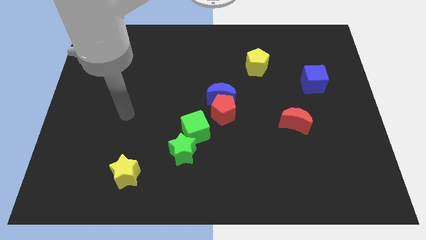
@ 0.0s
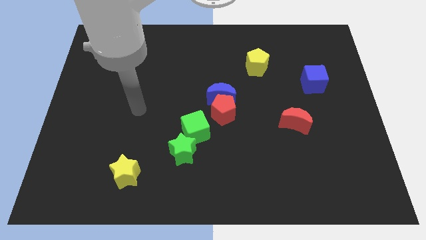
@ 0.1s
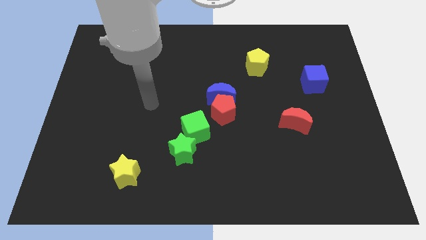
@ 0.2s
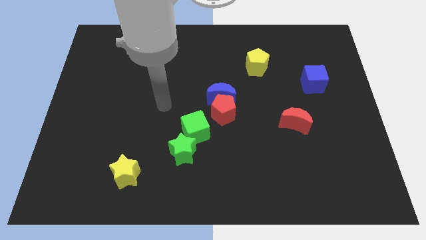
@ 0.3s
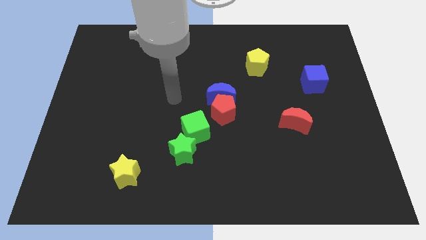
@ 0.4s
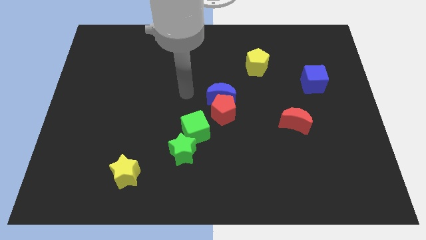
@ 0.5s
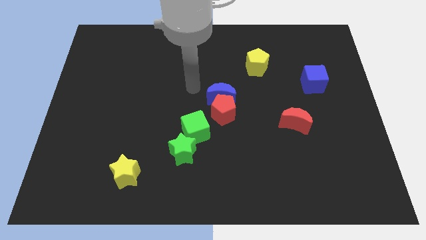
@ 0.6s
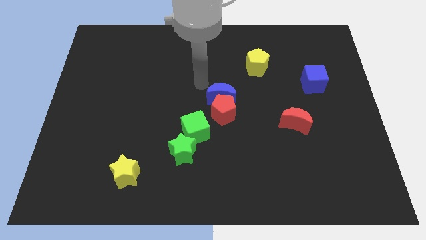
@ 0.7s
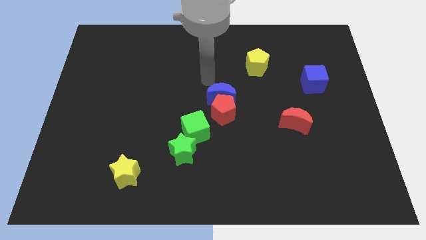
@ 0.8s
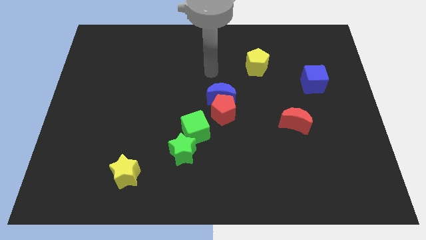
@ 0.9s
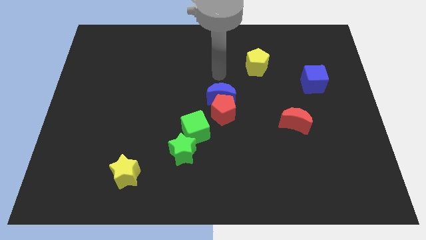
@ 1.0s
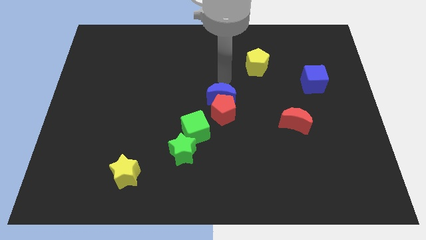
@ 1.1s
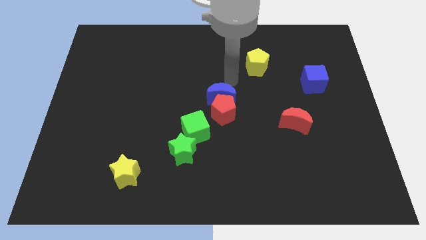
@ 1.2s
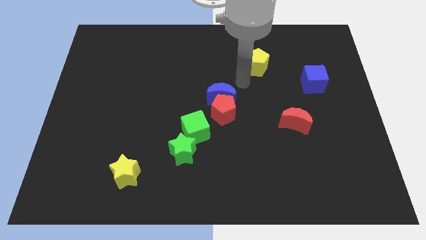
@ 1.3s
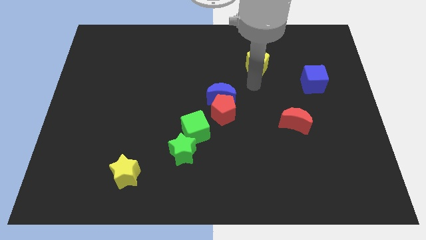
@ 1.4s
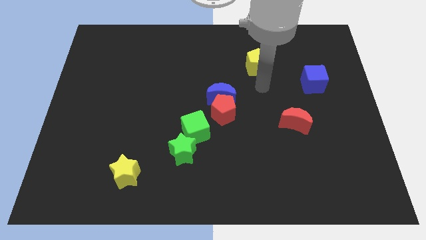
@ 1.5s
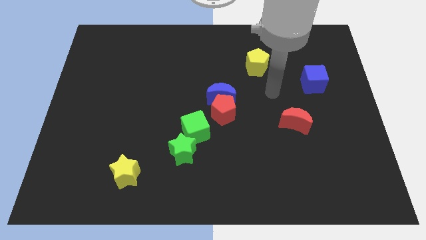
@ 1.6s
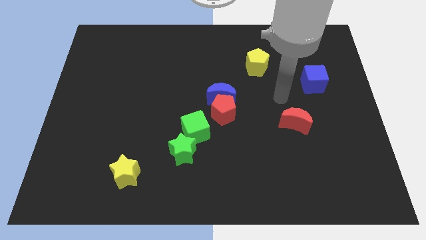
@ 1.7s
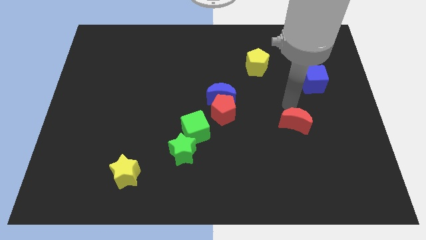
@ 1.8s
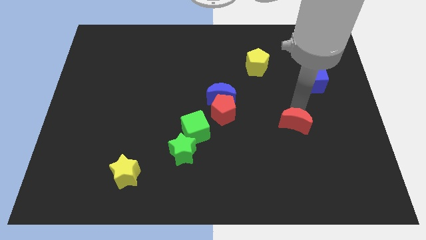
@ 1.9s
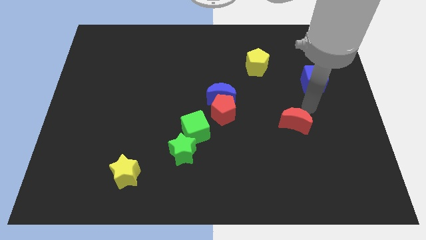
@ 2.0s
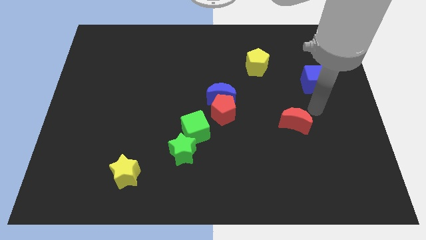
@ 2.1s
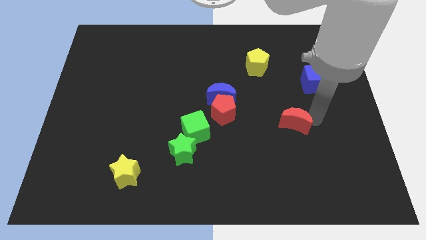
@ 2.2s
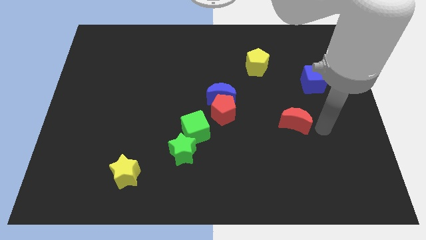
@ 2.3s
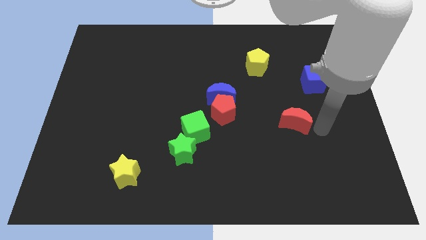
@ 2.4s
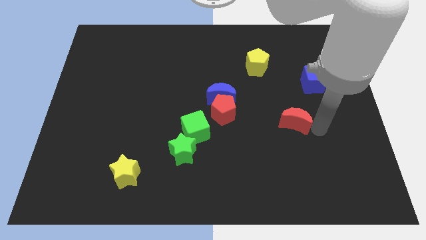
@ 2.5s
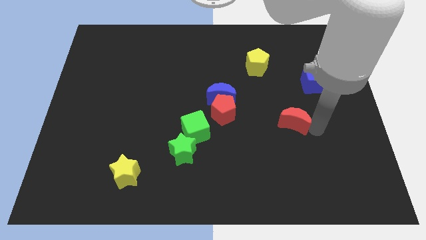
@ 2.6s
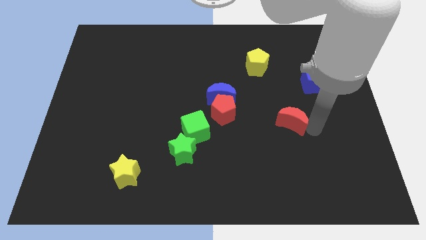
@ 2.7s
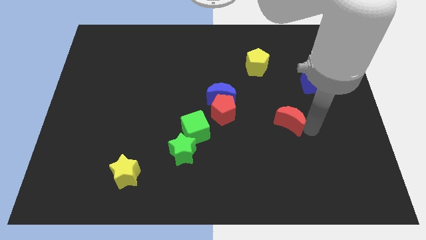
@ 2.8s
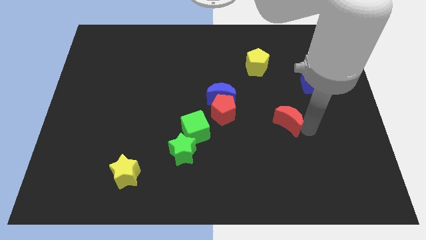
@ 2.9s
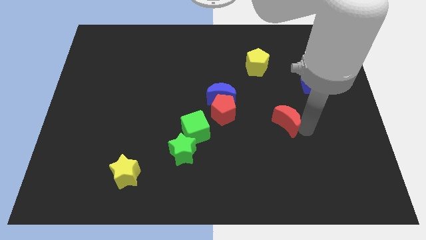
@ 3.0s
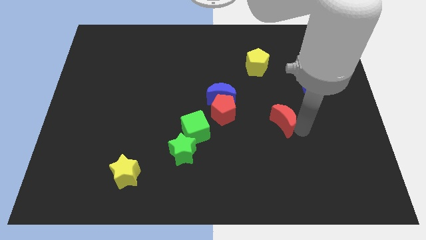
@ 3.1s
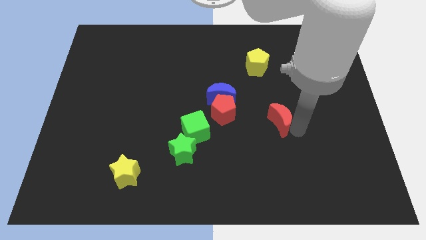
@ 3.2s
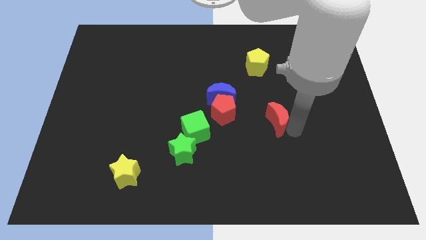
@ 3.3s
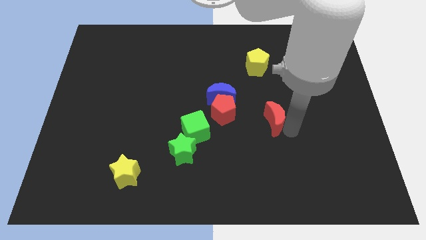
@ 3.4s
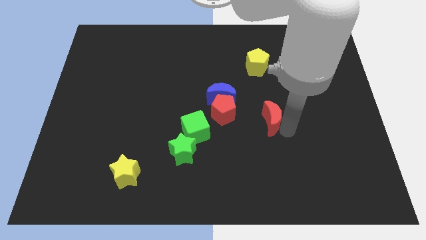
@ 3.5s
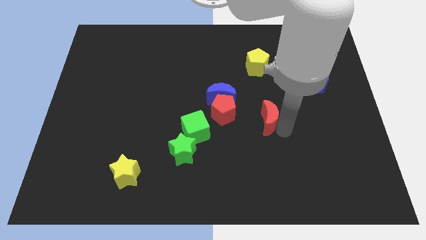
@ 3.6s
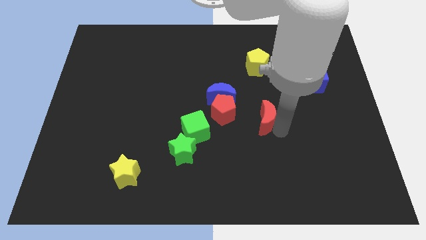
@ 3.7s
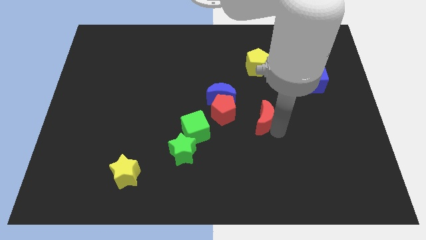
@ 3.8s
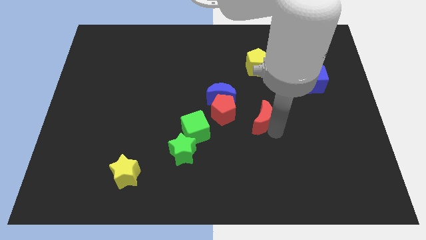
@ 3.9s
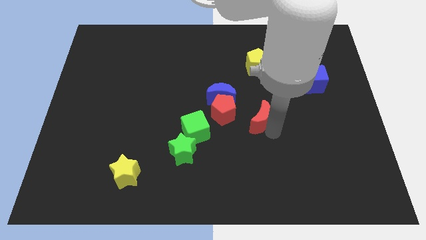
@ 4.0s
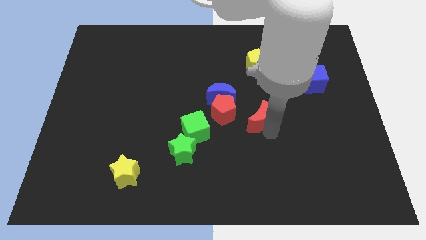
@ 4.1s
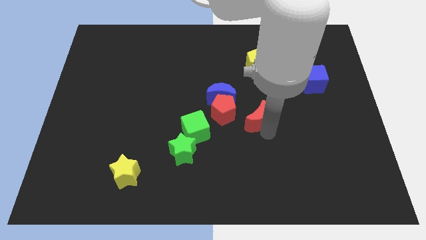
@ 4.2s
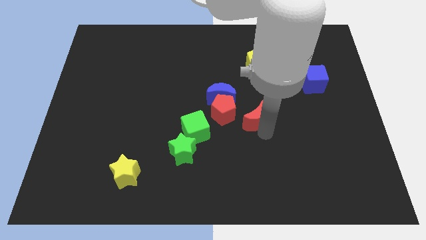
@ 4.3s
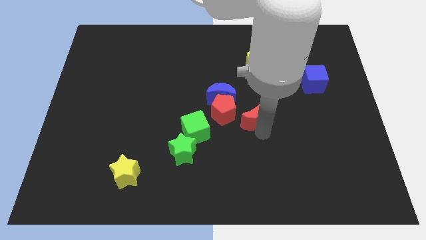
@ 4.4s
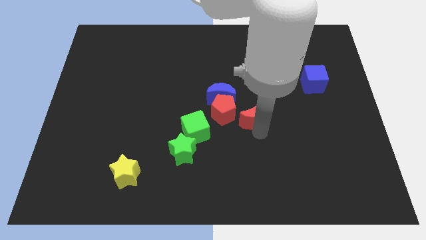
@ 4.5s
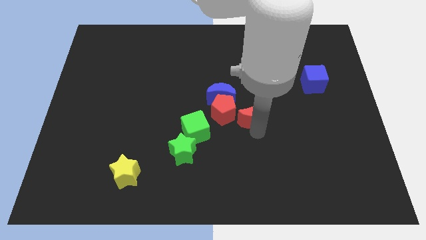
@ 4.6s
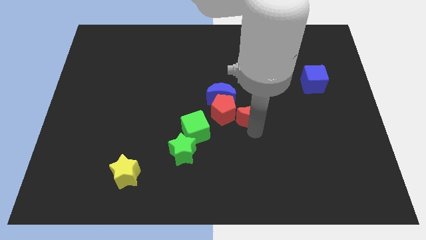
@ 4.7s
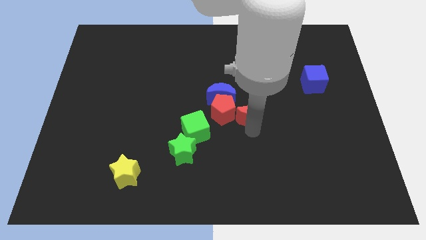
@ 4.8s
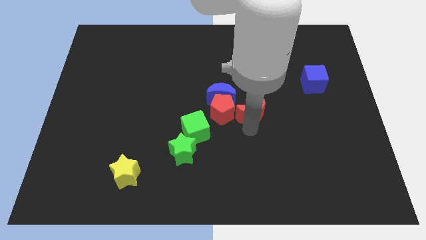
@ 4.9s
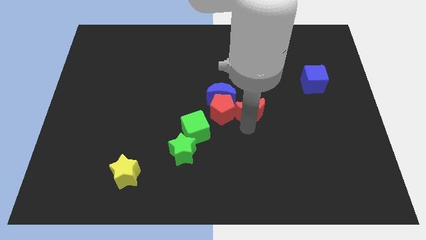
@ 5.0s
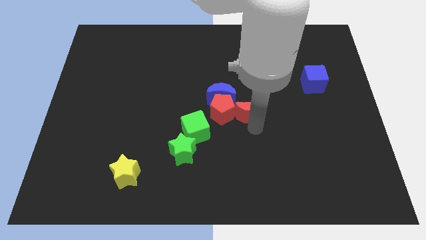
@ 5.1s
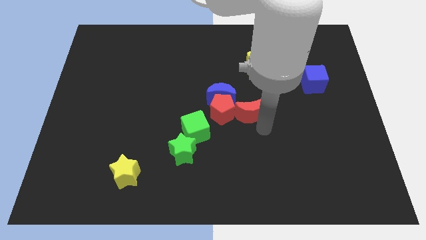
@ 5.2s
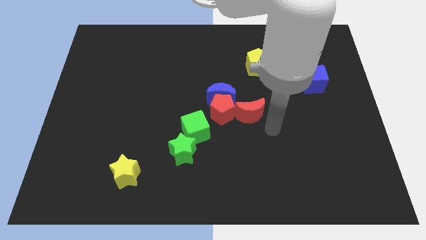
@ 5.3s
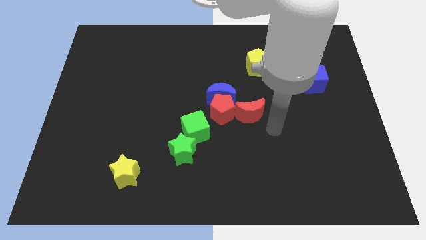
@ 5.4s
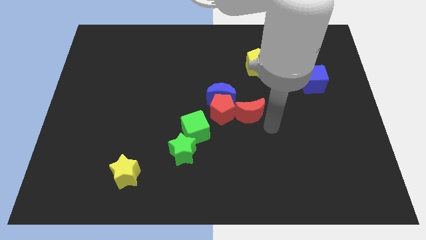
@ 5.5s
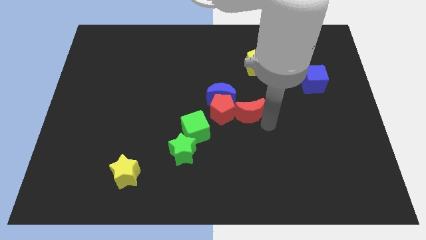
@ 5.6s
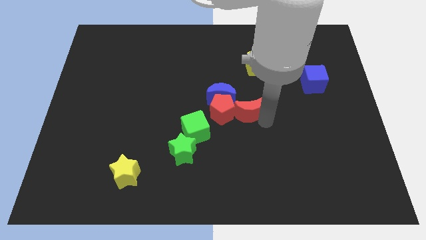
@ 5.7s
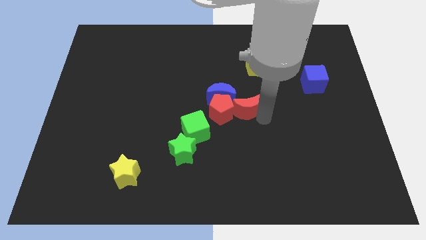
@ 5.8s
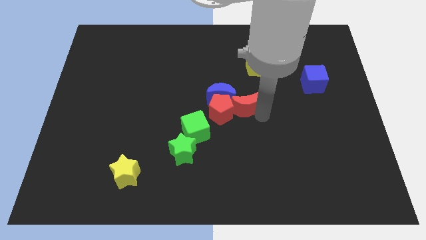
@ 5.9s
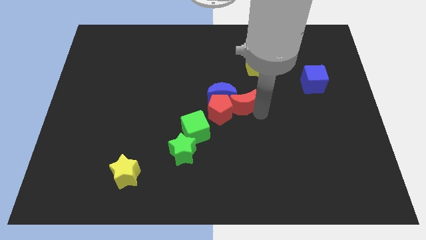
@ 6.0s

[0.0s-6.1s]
push the red moon towards the blue moon

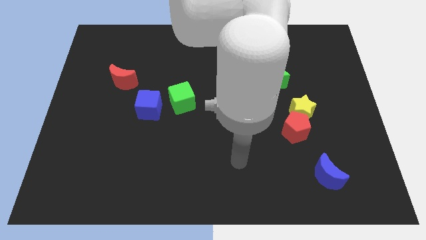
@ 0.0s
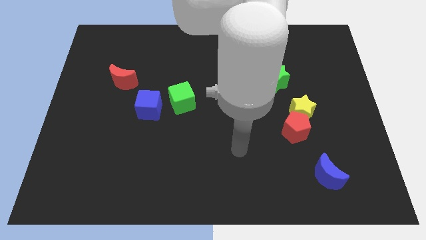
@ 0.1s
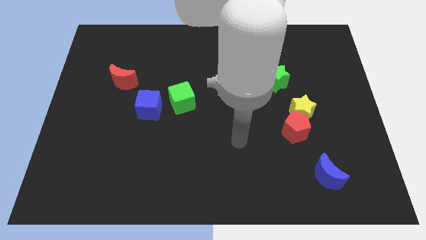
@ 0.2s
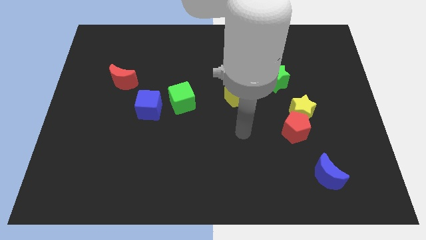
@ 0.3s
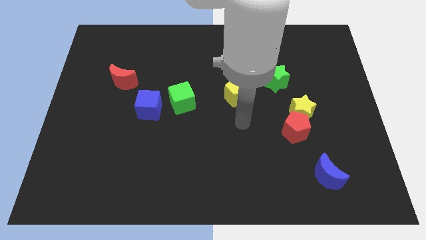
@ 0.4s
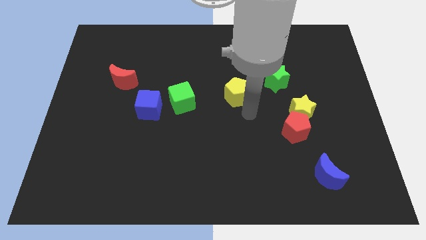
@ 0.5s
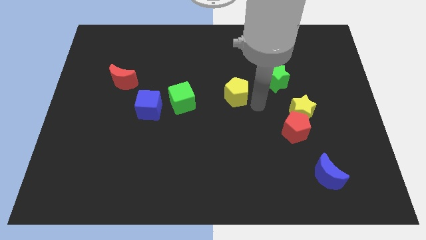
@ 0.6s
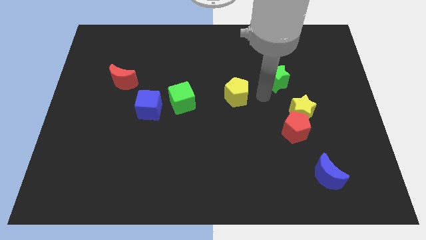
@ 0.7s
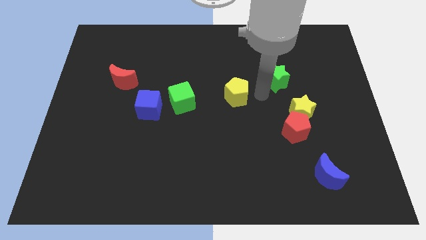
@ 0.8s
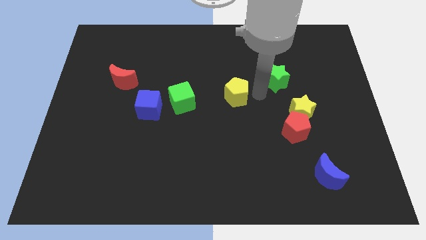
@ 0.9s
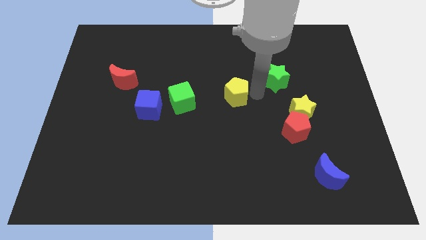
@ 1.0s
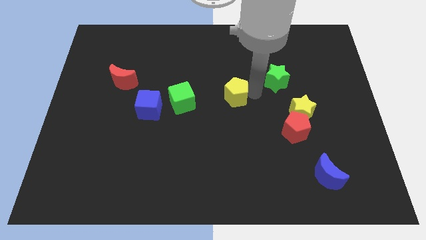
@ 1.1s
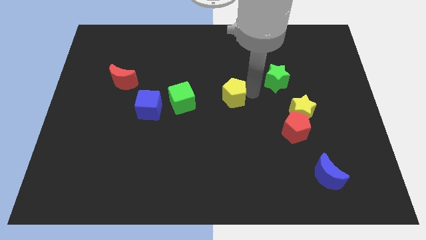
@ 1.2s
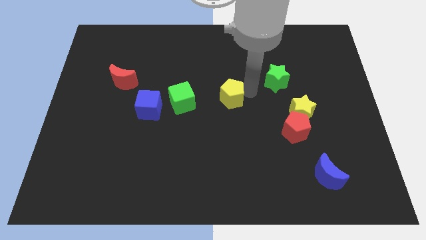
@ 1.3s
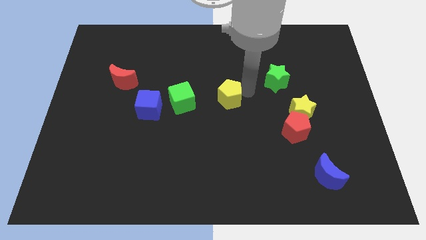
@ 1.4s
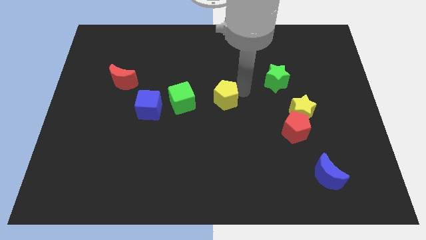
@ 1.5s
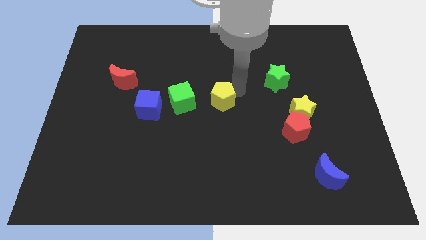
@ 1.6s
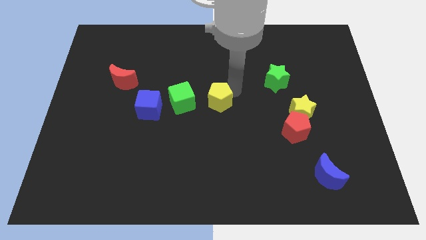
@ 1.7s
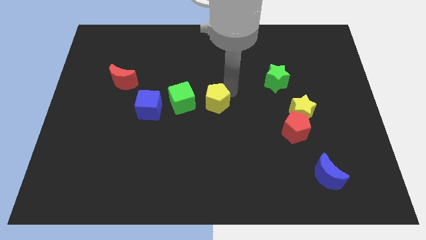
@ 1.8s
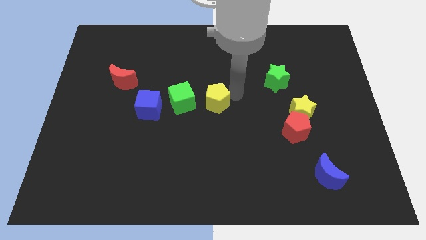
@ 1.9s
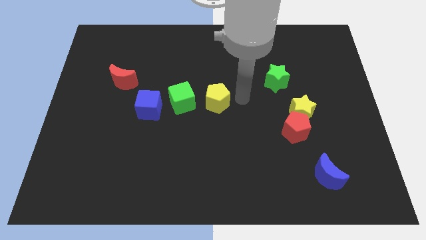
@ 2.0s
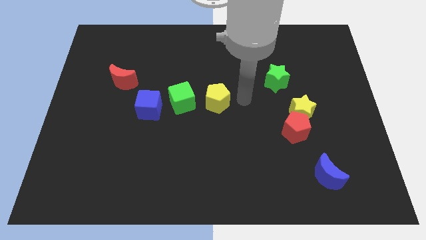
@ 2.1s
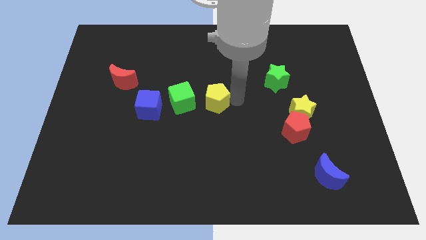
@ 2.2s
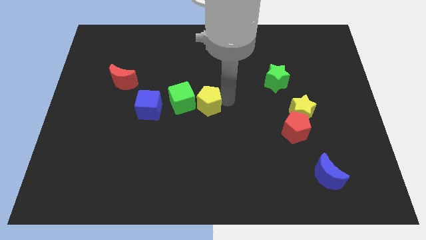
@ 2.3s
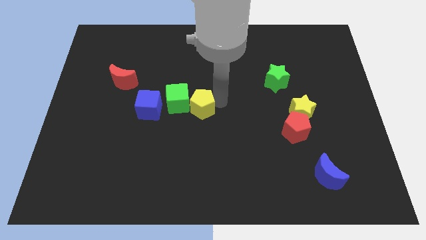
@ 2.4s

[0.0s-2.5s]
put the yellow pentagon next to the green cube
